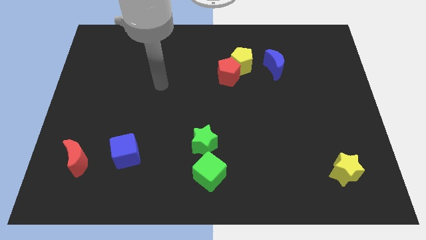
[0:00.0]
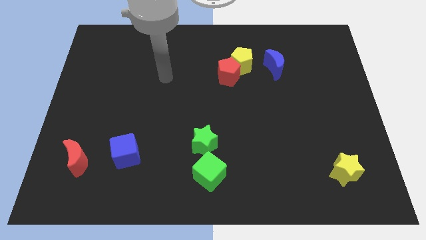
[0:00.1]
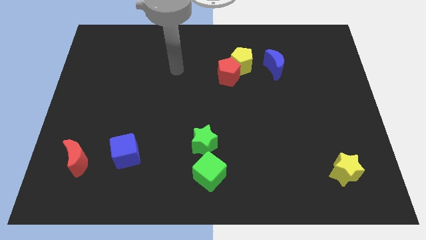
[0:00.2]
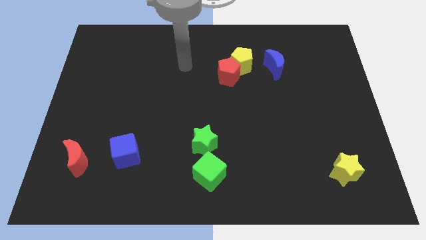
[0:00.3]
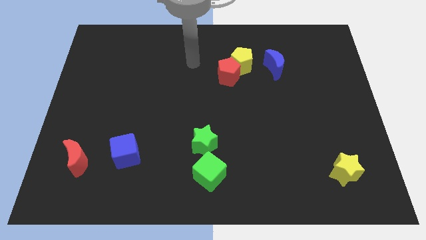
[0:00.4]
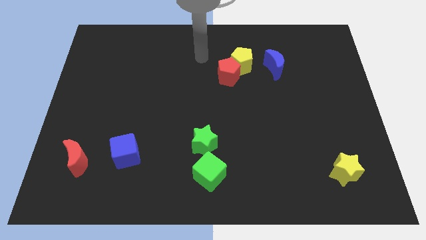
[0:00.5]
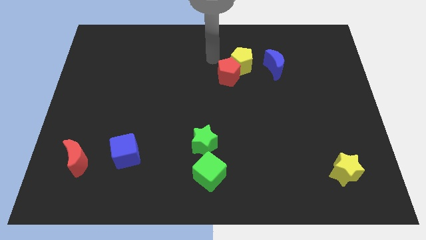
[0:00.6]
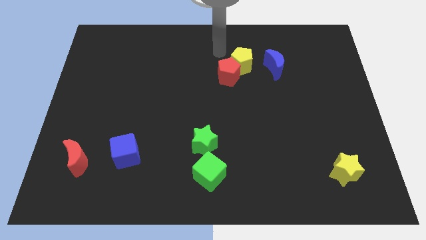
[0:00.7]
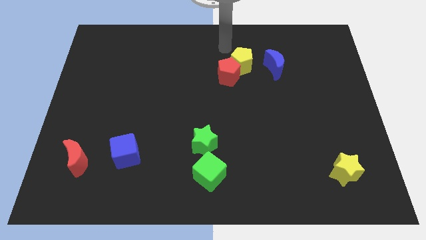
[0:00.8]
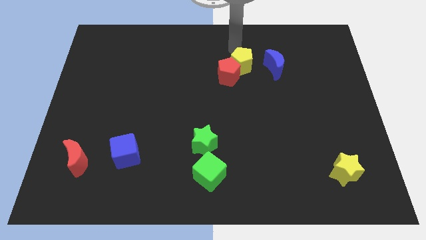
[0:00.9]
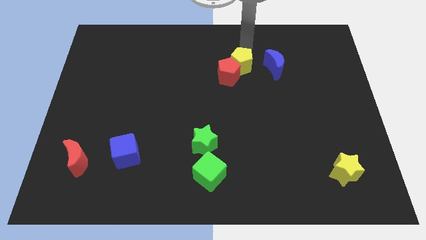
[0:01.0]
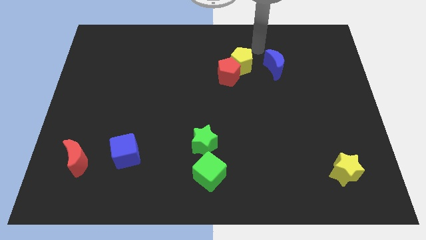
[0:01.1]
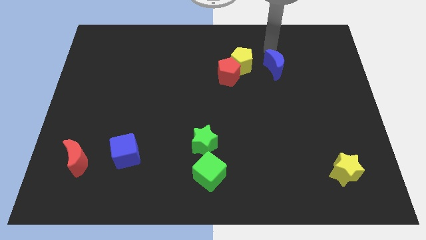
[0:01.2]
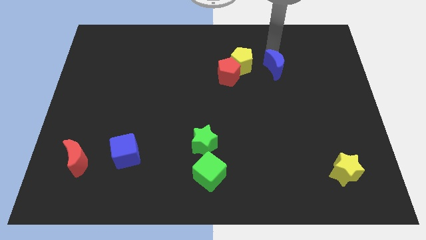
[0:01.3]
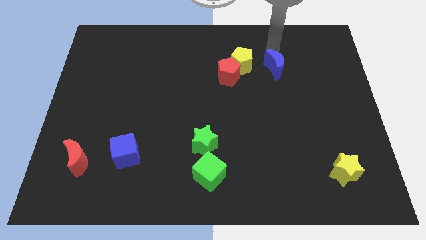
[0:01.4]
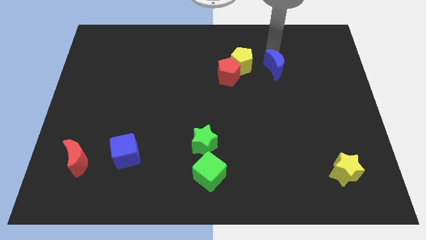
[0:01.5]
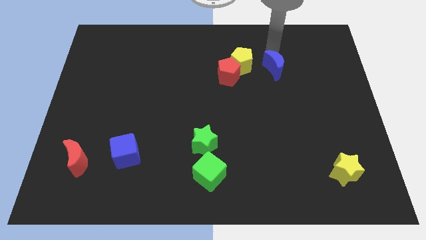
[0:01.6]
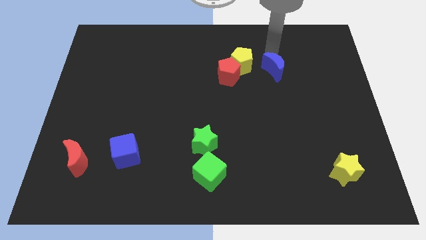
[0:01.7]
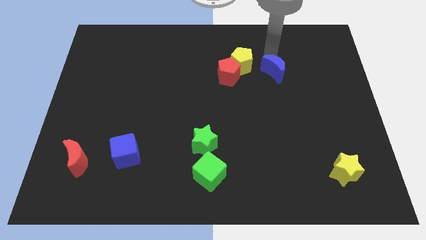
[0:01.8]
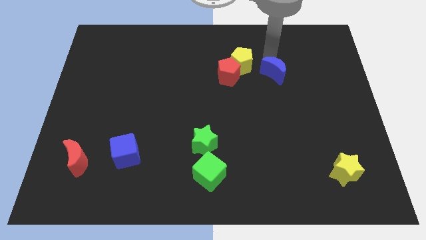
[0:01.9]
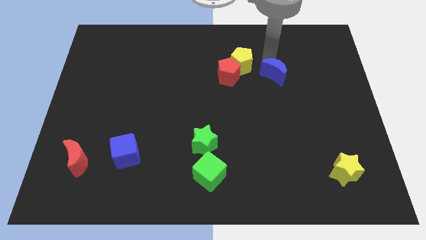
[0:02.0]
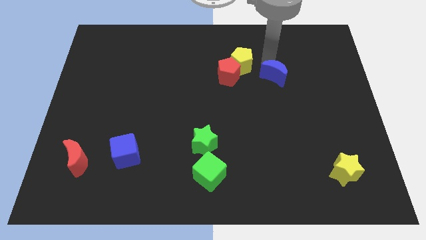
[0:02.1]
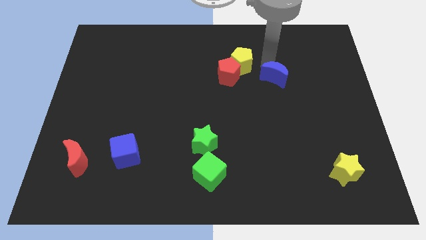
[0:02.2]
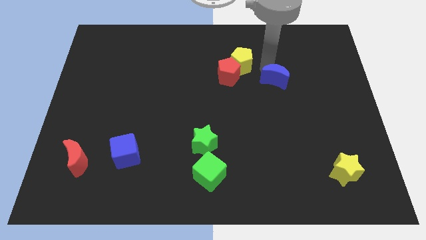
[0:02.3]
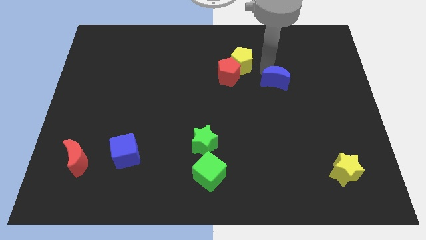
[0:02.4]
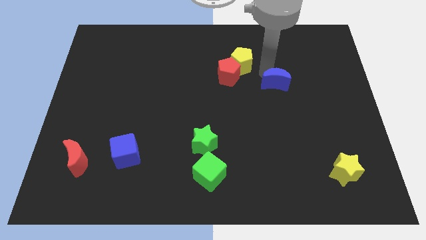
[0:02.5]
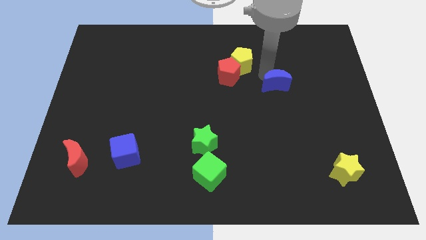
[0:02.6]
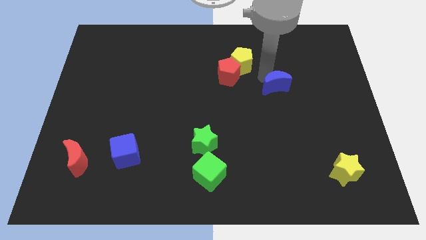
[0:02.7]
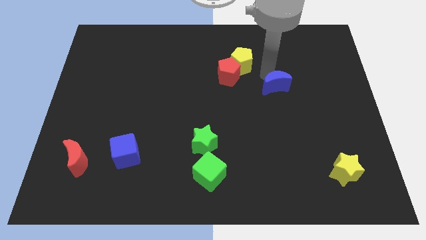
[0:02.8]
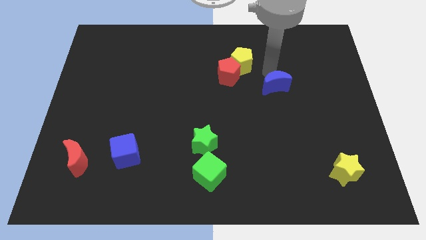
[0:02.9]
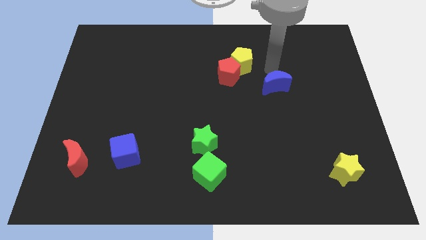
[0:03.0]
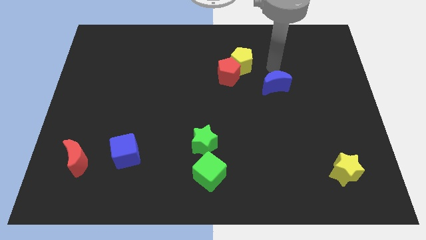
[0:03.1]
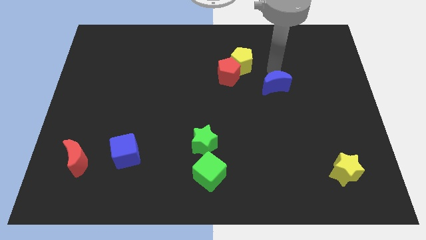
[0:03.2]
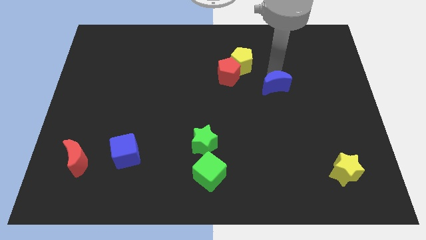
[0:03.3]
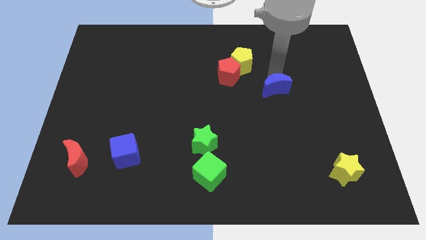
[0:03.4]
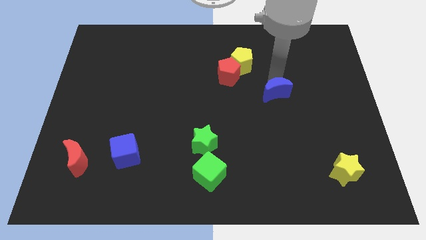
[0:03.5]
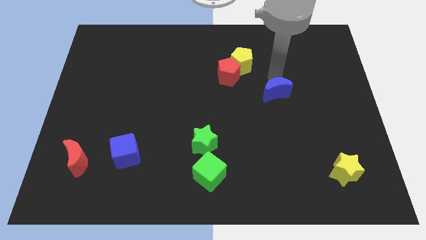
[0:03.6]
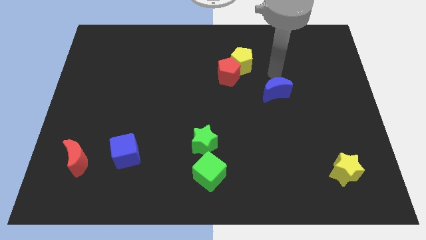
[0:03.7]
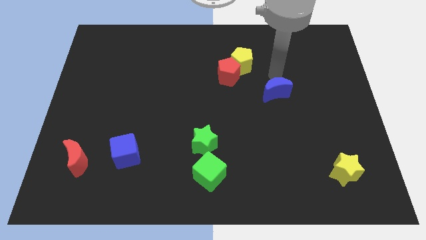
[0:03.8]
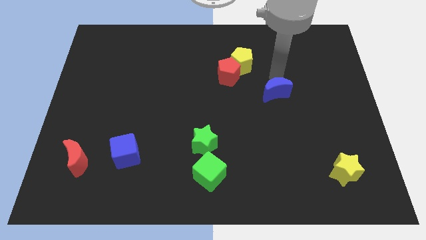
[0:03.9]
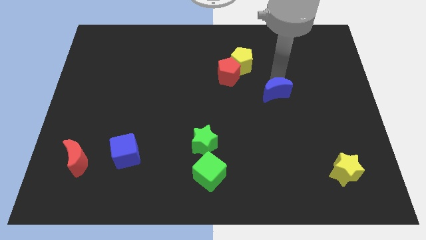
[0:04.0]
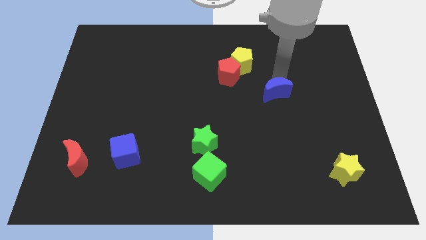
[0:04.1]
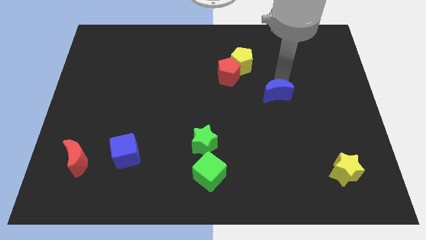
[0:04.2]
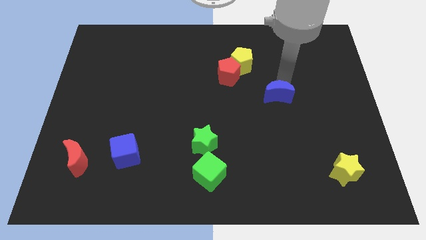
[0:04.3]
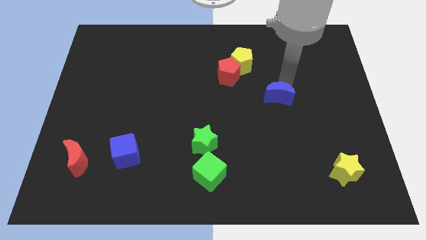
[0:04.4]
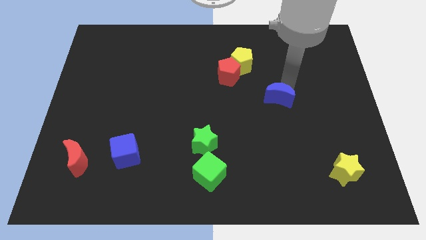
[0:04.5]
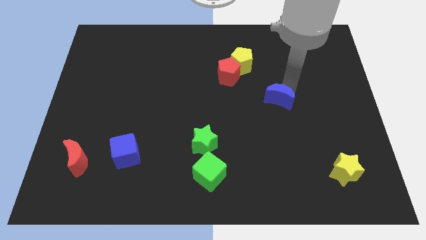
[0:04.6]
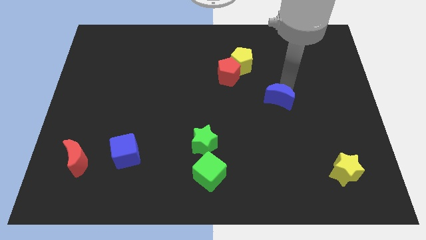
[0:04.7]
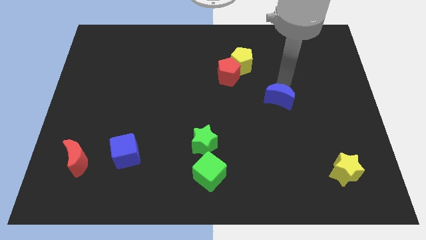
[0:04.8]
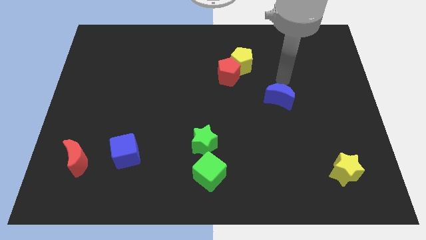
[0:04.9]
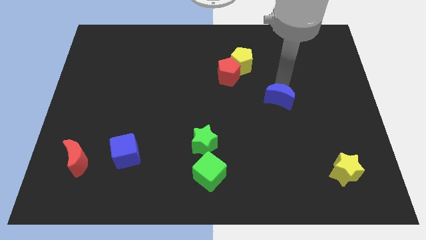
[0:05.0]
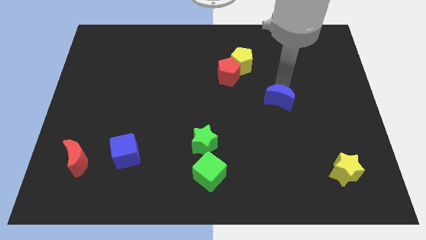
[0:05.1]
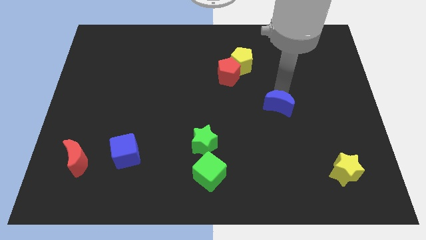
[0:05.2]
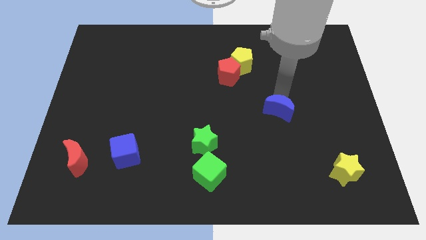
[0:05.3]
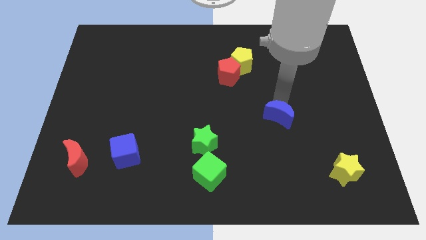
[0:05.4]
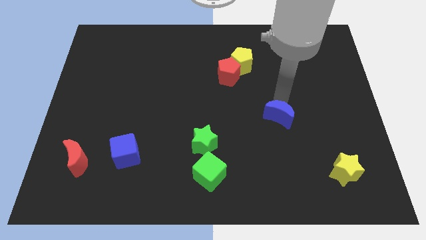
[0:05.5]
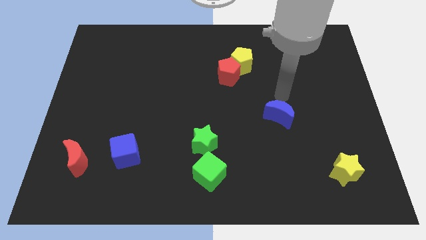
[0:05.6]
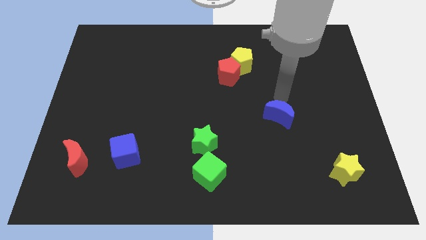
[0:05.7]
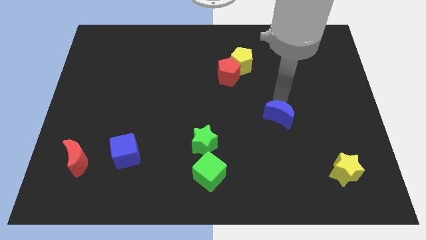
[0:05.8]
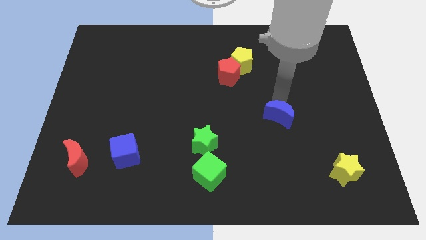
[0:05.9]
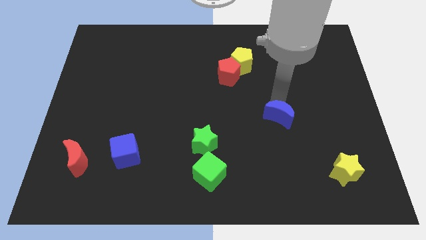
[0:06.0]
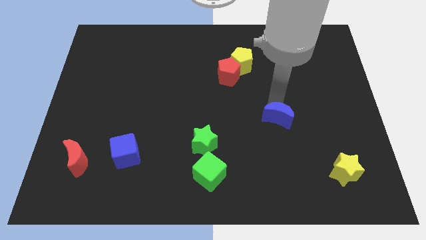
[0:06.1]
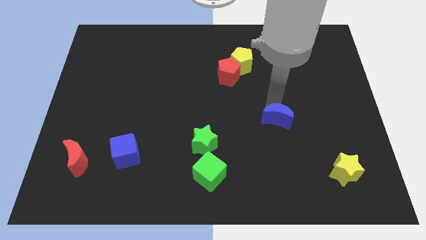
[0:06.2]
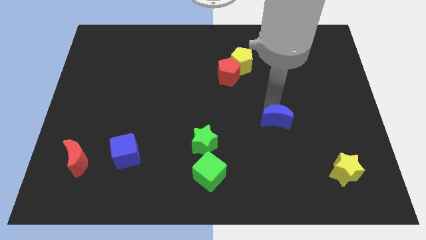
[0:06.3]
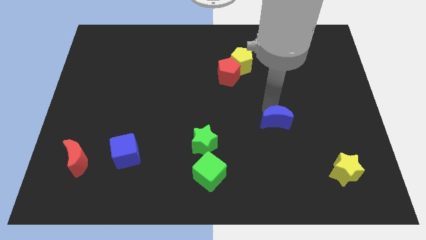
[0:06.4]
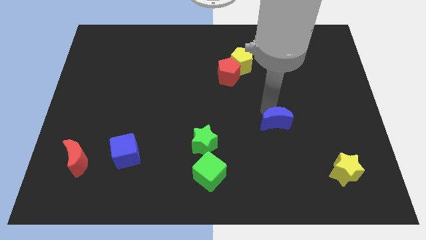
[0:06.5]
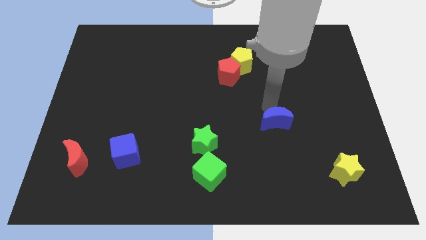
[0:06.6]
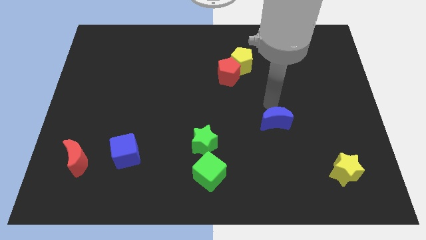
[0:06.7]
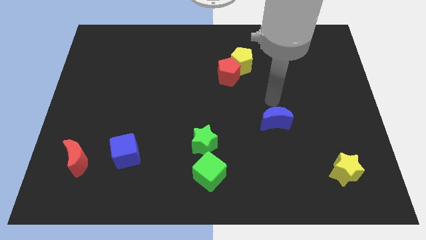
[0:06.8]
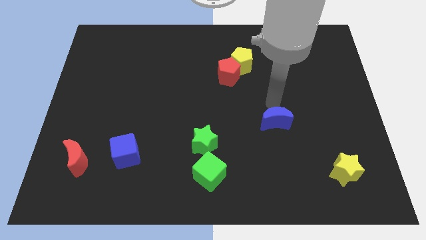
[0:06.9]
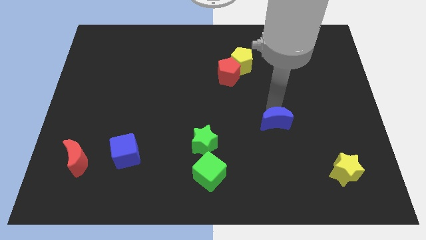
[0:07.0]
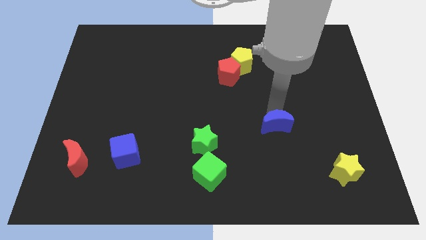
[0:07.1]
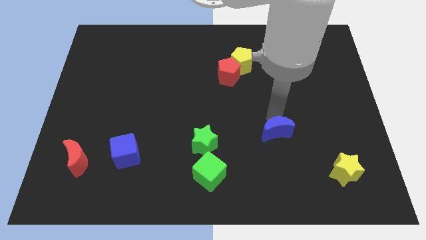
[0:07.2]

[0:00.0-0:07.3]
slide the blue moon down

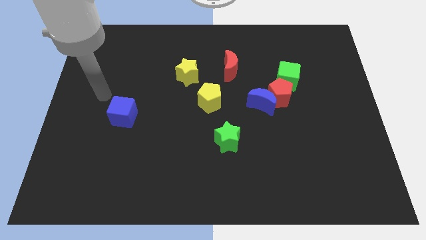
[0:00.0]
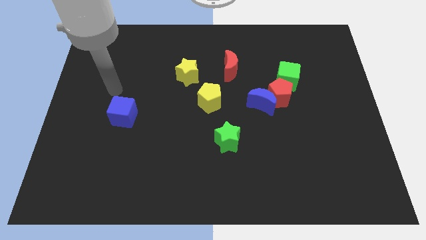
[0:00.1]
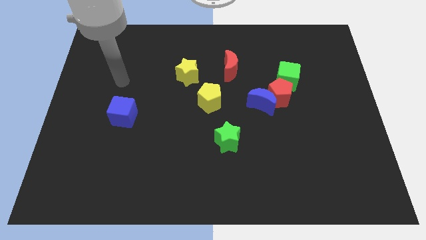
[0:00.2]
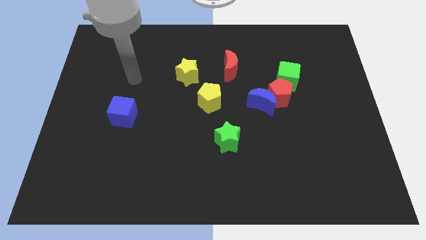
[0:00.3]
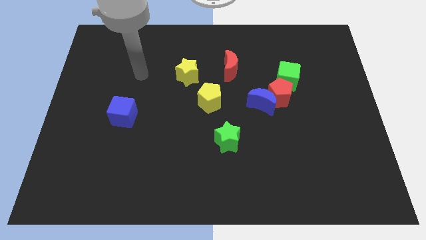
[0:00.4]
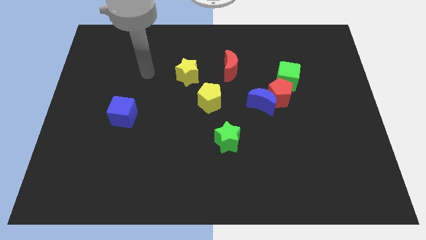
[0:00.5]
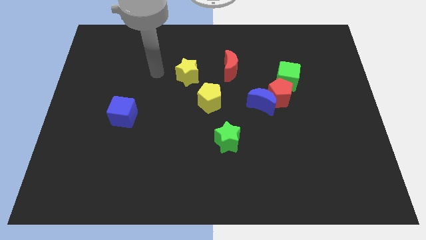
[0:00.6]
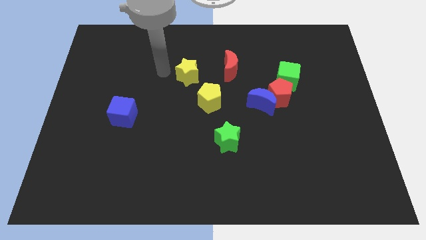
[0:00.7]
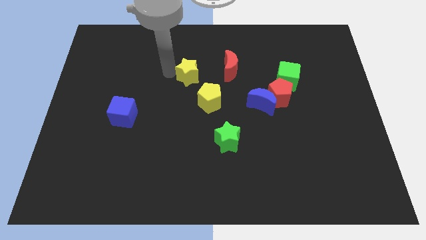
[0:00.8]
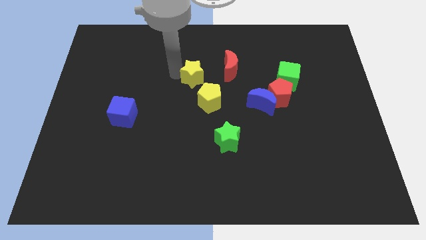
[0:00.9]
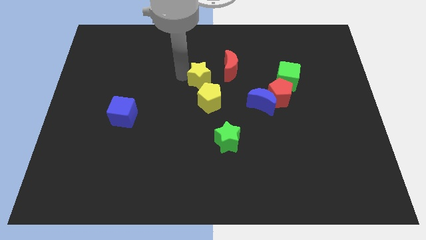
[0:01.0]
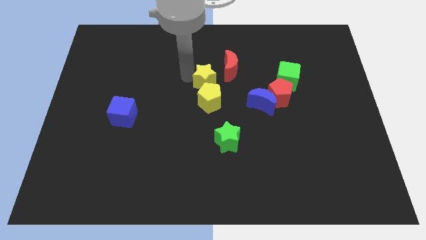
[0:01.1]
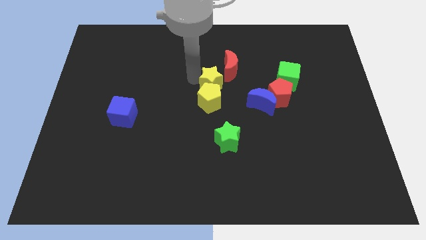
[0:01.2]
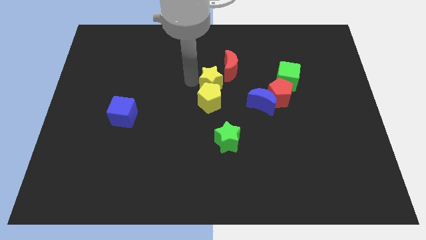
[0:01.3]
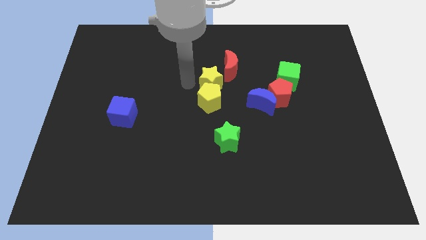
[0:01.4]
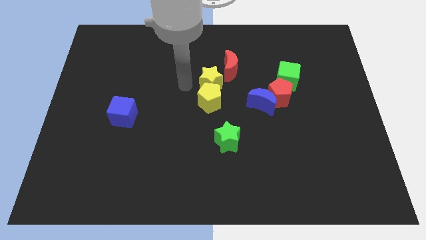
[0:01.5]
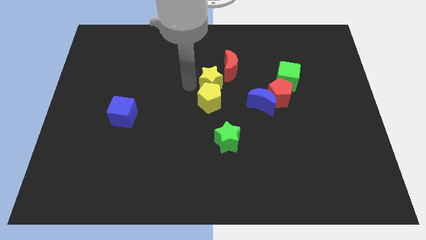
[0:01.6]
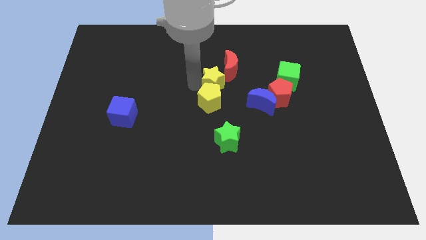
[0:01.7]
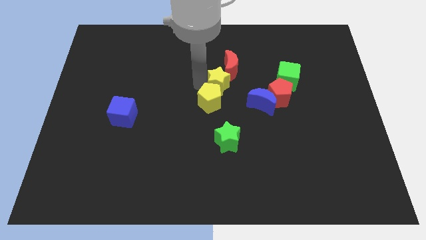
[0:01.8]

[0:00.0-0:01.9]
move the yellow star slightly to the right
